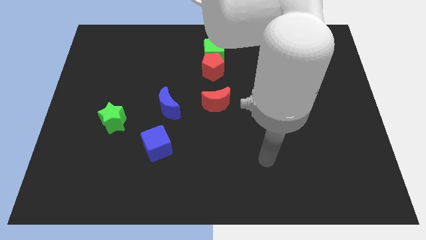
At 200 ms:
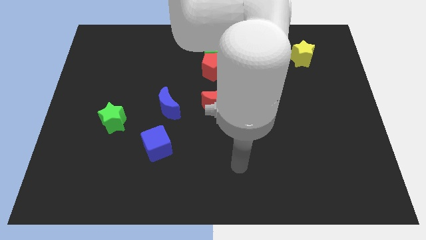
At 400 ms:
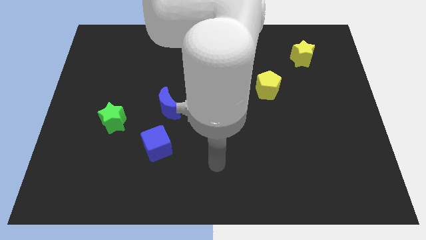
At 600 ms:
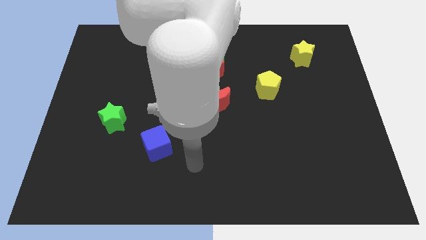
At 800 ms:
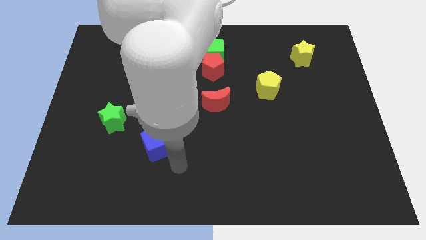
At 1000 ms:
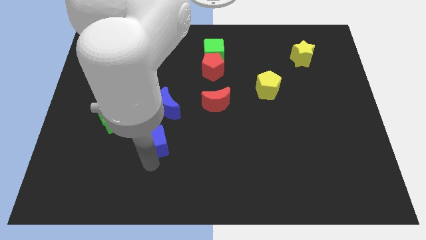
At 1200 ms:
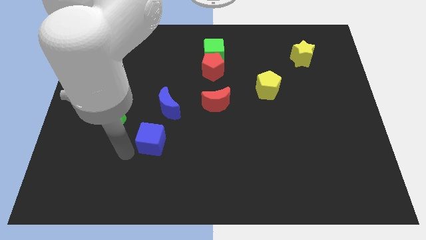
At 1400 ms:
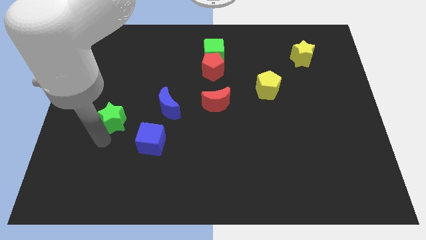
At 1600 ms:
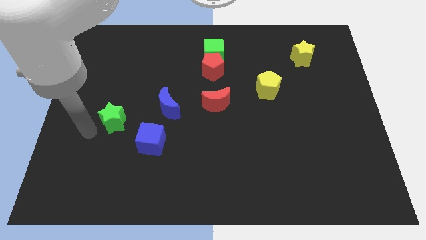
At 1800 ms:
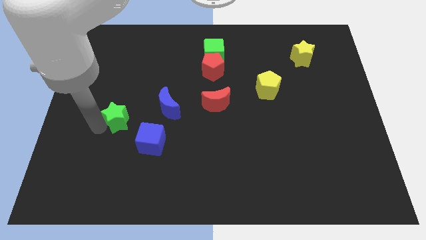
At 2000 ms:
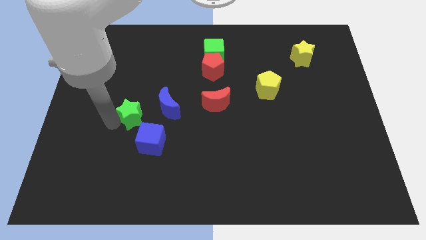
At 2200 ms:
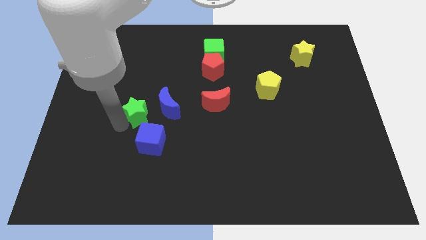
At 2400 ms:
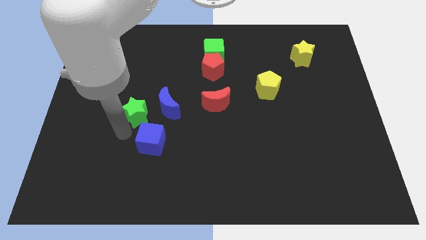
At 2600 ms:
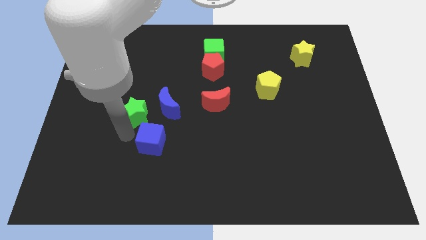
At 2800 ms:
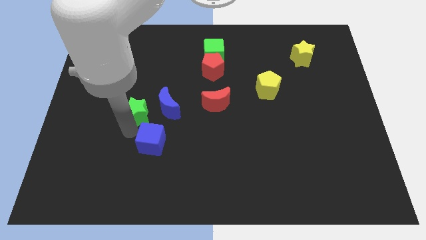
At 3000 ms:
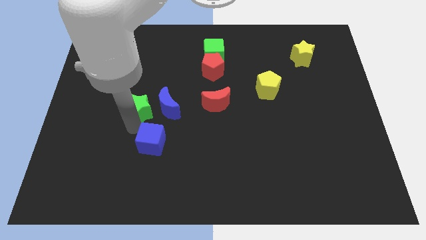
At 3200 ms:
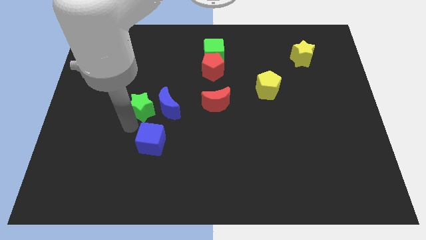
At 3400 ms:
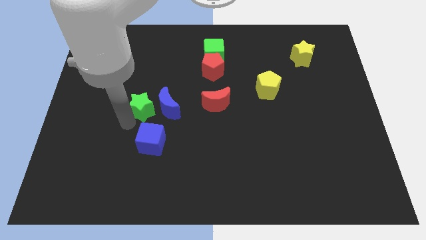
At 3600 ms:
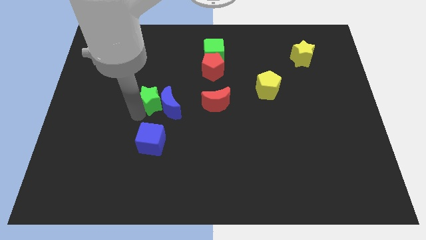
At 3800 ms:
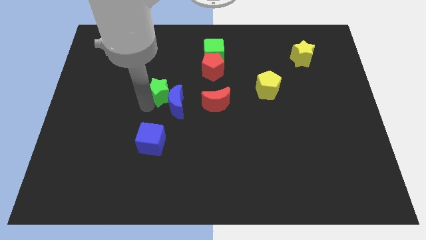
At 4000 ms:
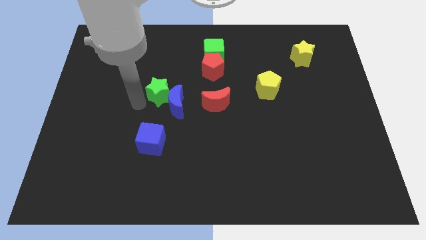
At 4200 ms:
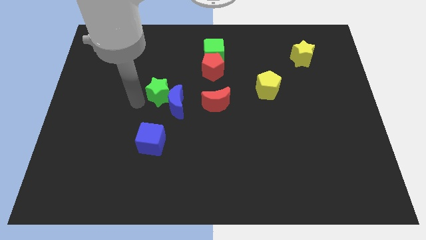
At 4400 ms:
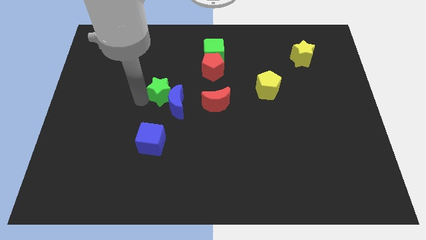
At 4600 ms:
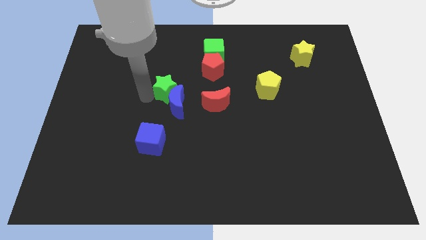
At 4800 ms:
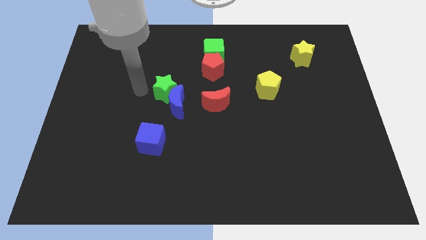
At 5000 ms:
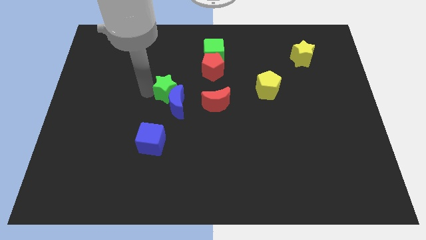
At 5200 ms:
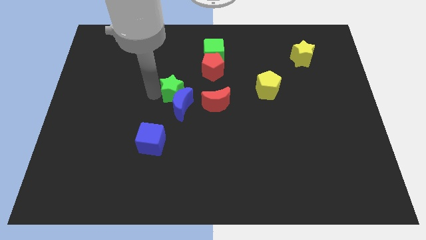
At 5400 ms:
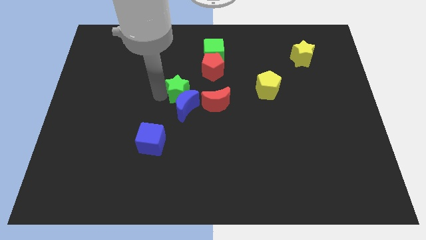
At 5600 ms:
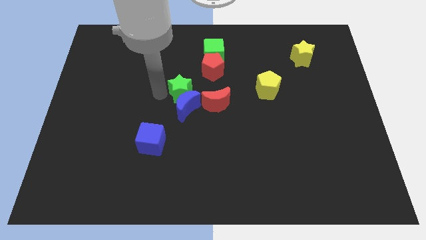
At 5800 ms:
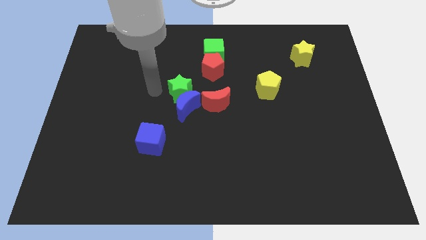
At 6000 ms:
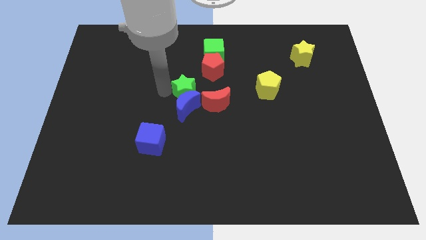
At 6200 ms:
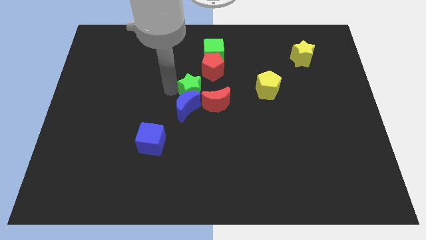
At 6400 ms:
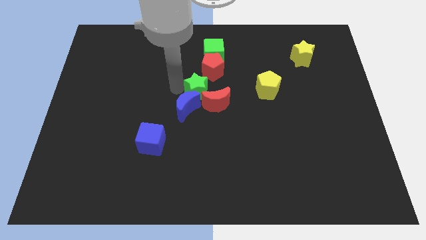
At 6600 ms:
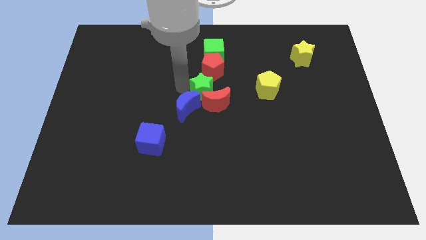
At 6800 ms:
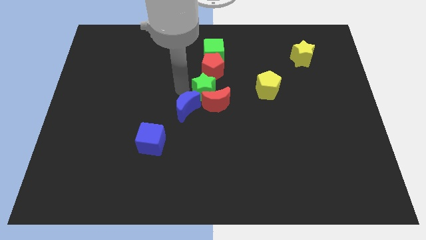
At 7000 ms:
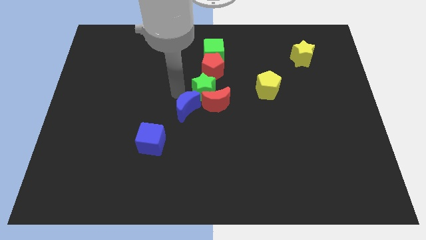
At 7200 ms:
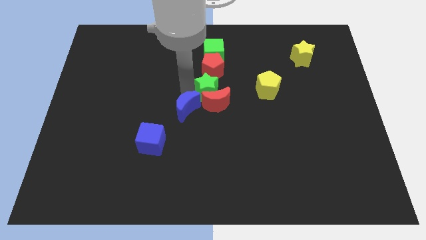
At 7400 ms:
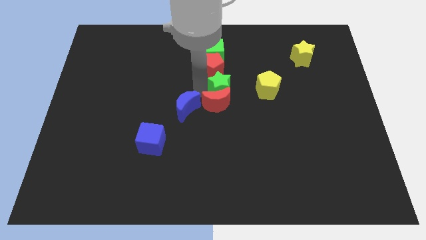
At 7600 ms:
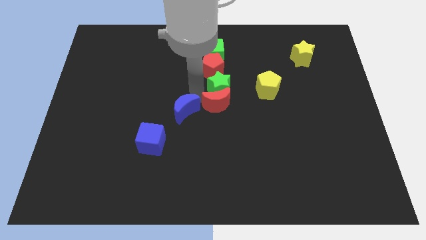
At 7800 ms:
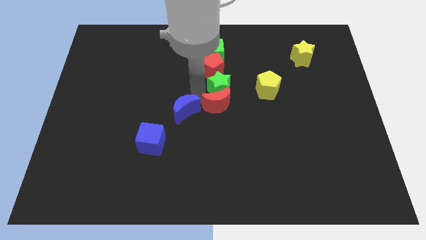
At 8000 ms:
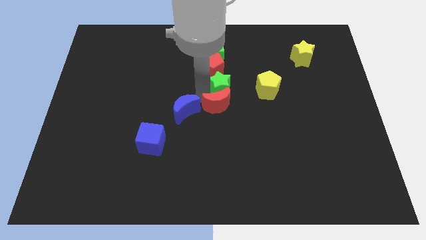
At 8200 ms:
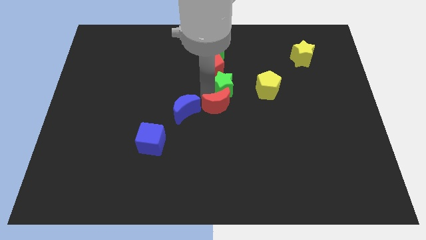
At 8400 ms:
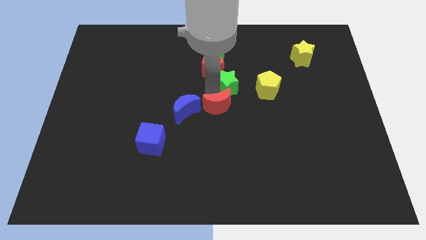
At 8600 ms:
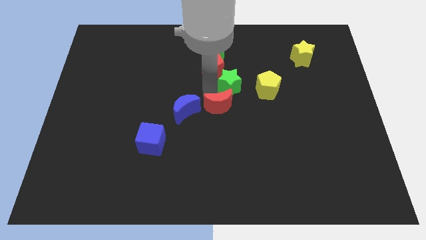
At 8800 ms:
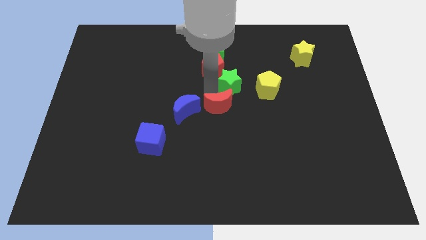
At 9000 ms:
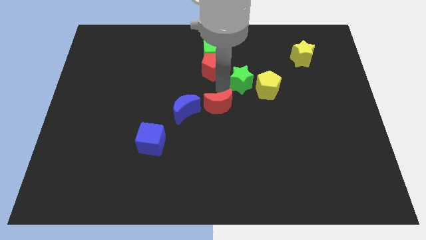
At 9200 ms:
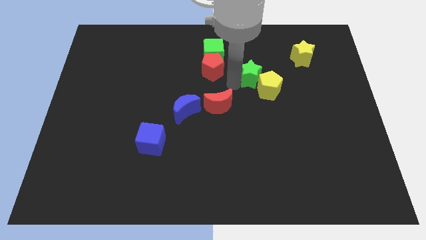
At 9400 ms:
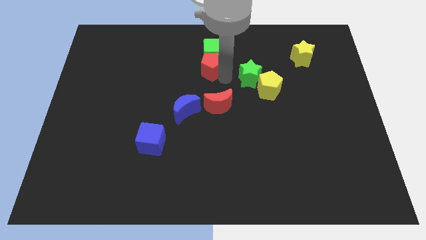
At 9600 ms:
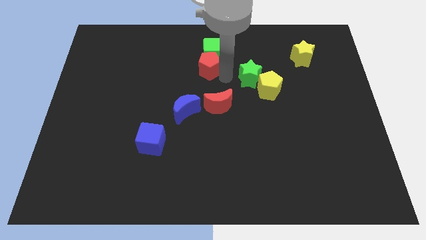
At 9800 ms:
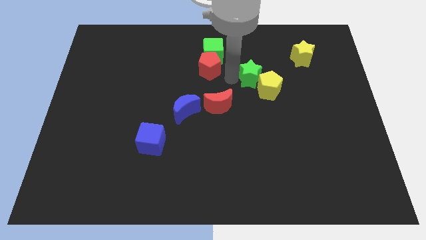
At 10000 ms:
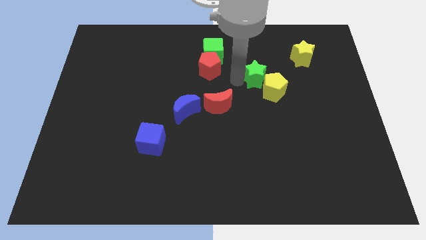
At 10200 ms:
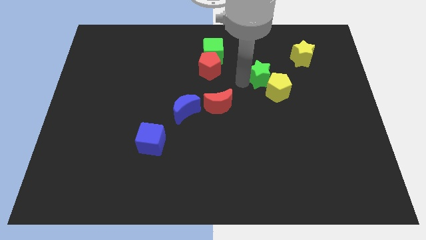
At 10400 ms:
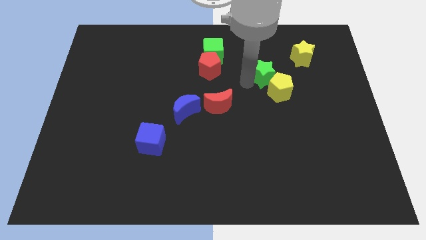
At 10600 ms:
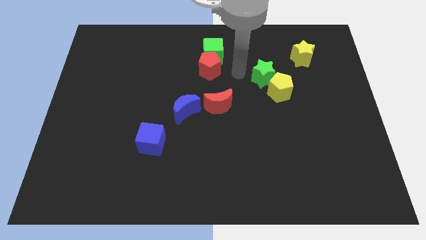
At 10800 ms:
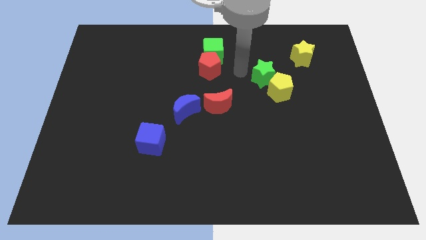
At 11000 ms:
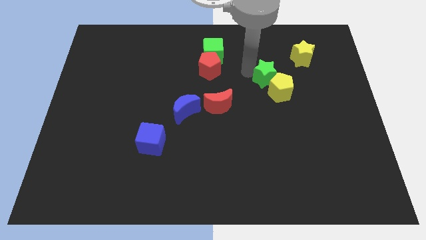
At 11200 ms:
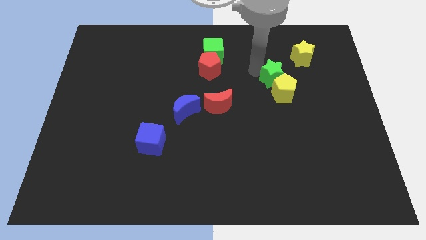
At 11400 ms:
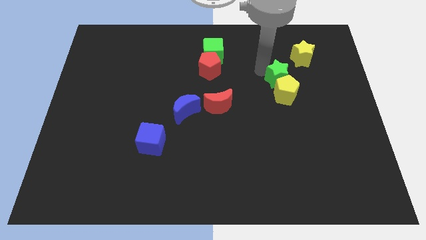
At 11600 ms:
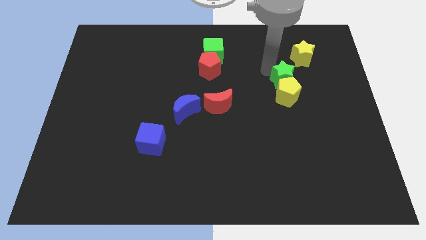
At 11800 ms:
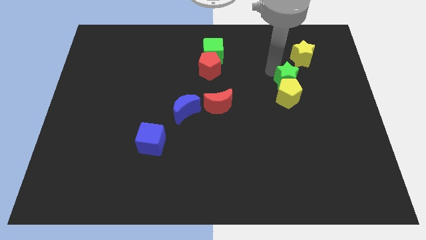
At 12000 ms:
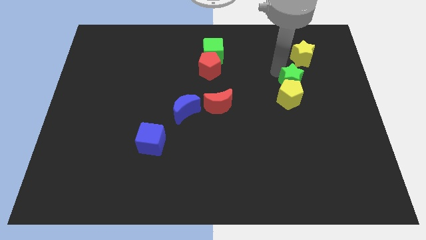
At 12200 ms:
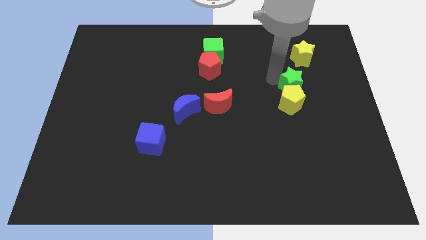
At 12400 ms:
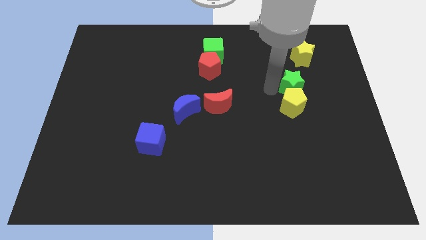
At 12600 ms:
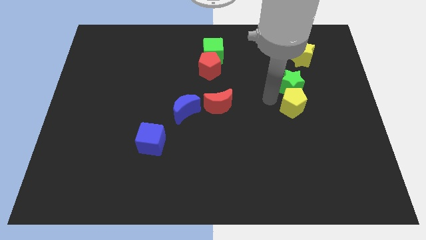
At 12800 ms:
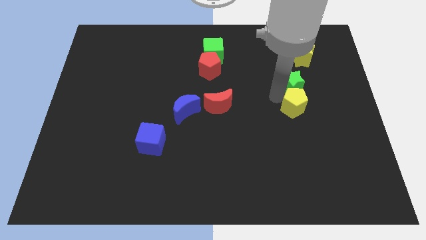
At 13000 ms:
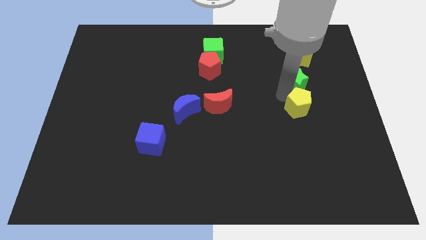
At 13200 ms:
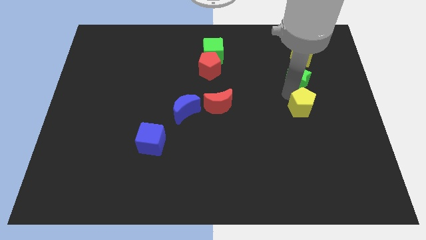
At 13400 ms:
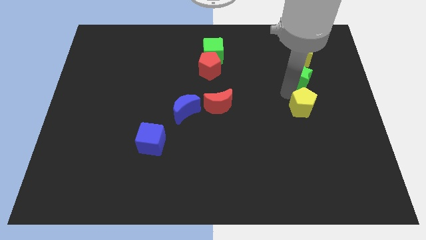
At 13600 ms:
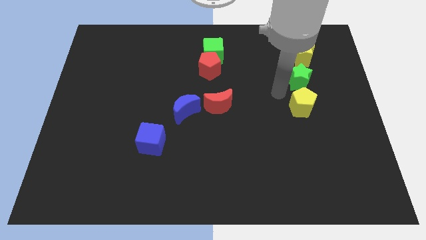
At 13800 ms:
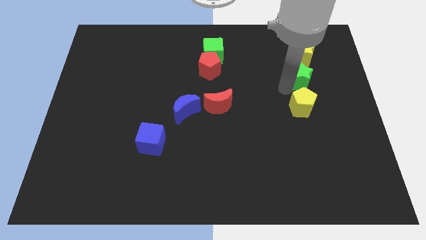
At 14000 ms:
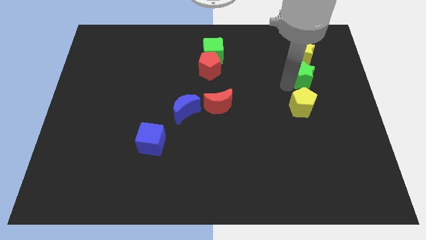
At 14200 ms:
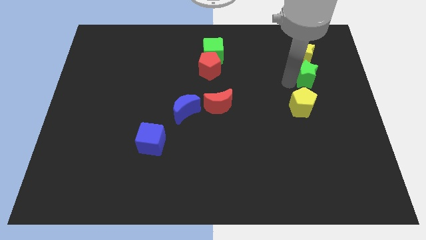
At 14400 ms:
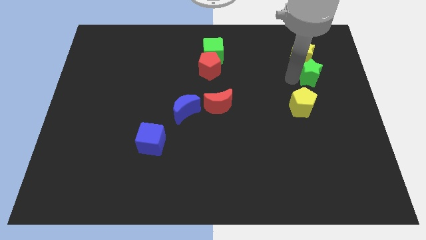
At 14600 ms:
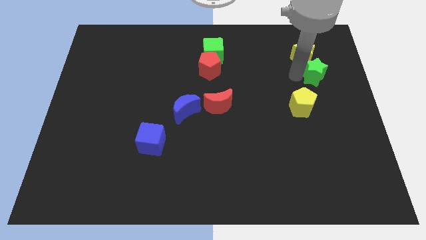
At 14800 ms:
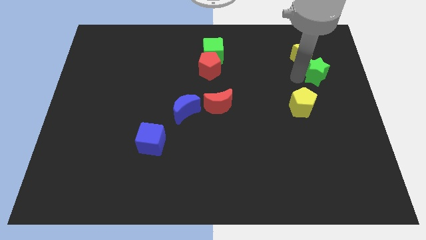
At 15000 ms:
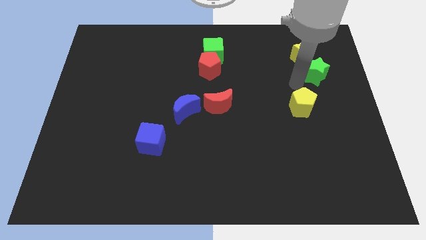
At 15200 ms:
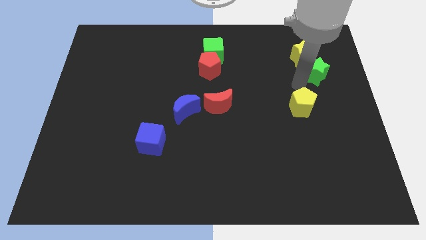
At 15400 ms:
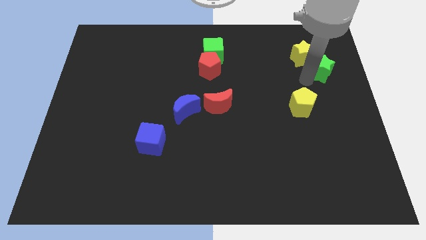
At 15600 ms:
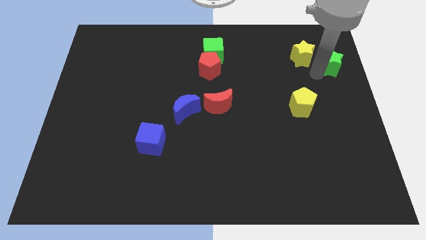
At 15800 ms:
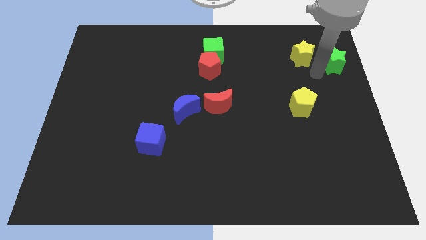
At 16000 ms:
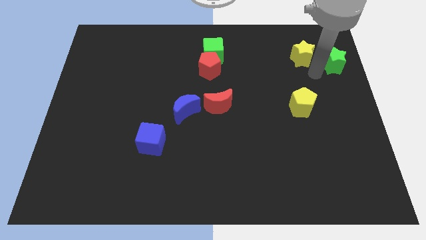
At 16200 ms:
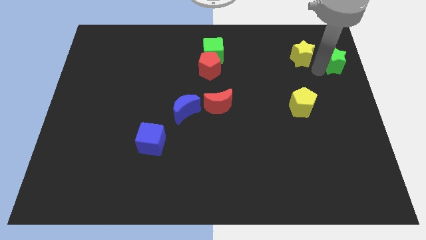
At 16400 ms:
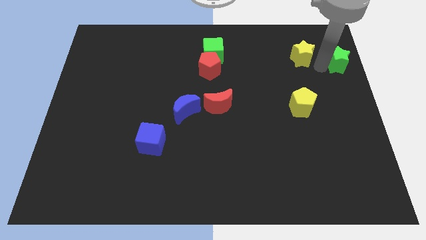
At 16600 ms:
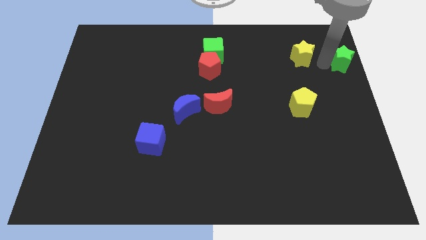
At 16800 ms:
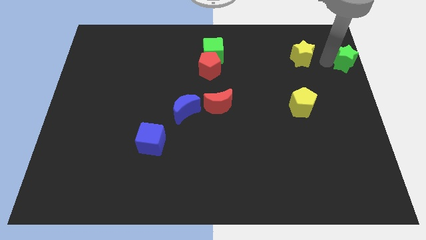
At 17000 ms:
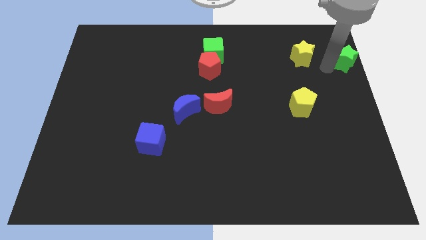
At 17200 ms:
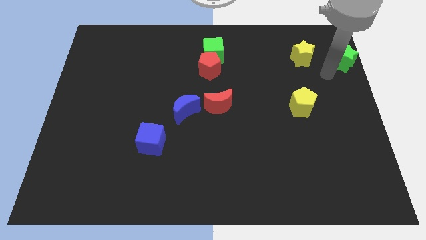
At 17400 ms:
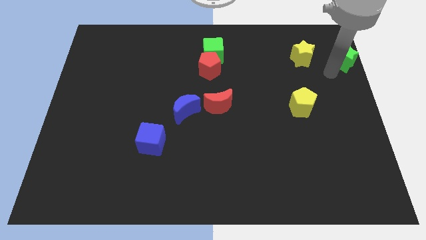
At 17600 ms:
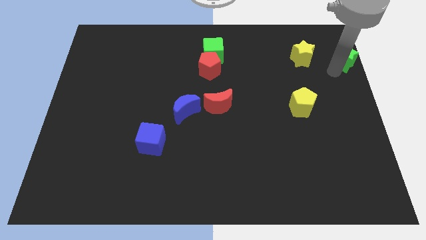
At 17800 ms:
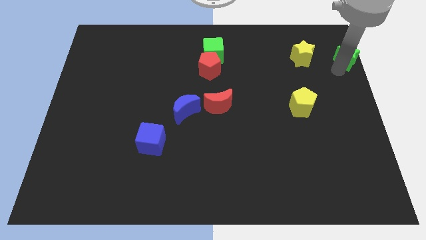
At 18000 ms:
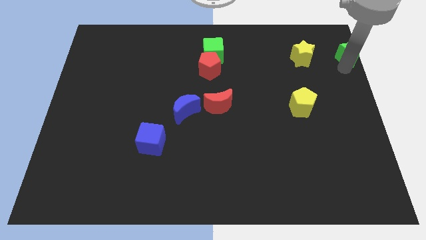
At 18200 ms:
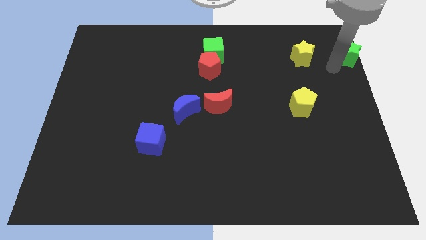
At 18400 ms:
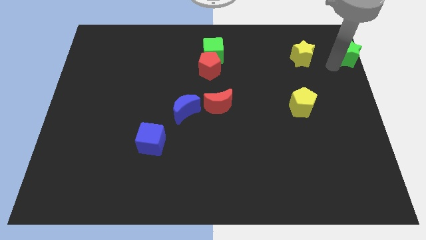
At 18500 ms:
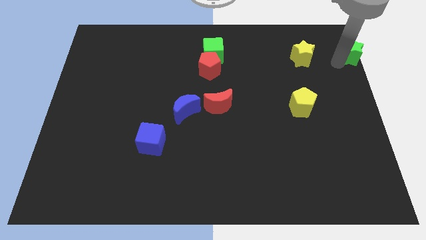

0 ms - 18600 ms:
slide the green star to the top right of the board
